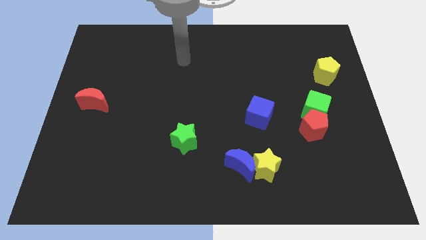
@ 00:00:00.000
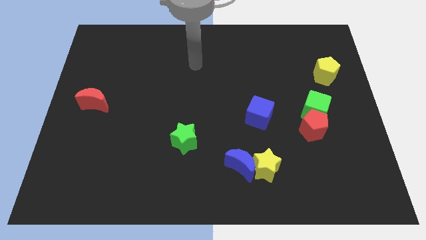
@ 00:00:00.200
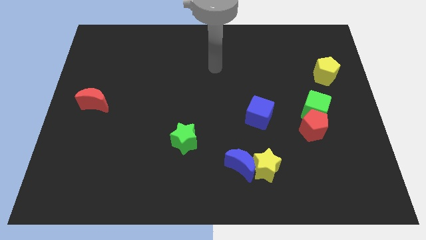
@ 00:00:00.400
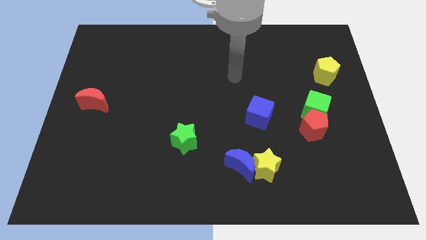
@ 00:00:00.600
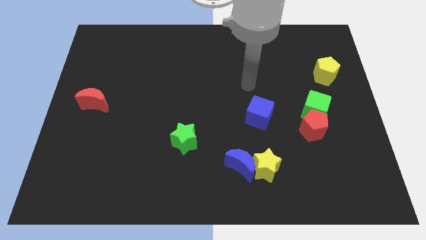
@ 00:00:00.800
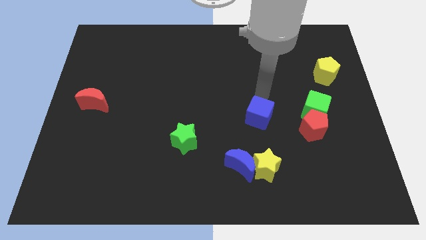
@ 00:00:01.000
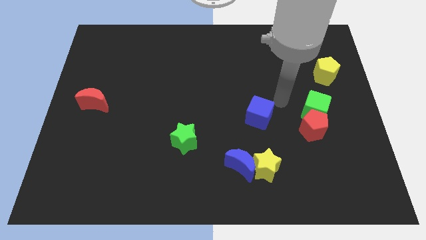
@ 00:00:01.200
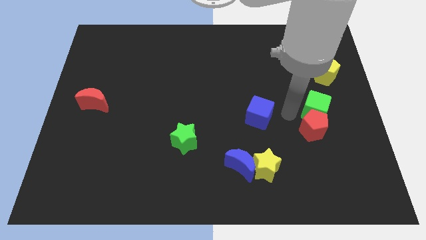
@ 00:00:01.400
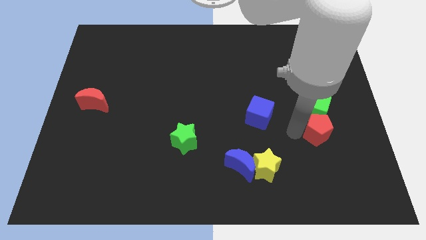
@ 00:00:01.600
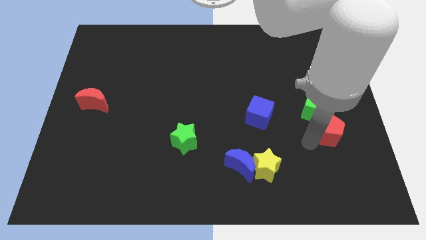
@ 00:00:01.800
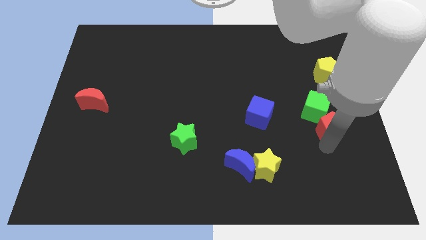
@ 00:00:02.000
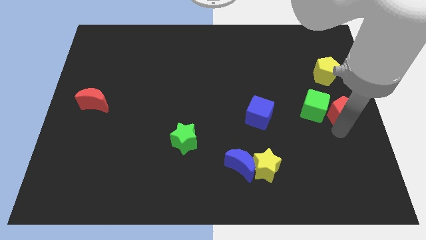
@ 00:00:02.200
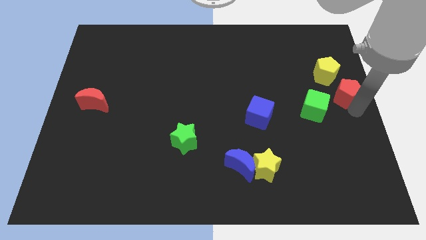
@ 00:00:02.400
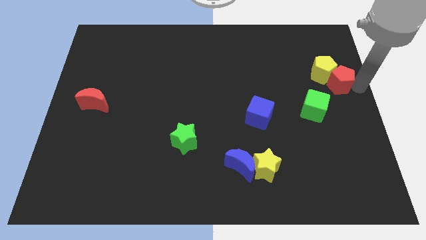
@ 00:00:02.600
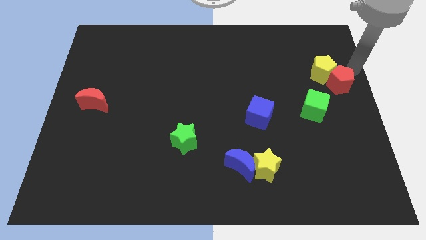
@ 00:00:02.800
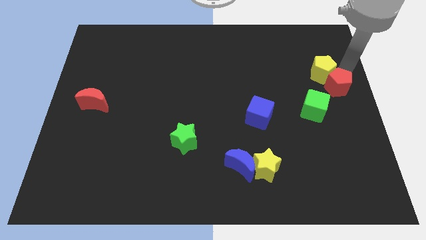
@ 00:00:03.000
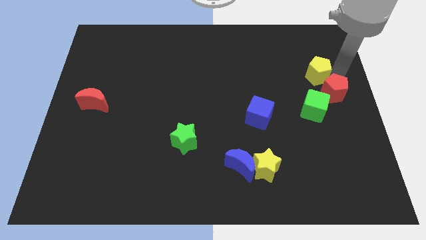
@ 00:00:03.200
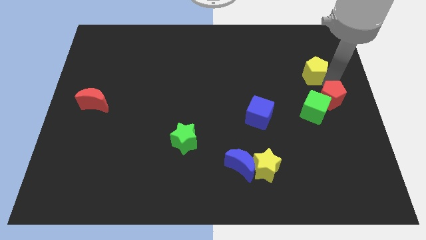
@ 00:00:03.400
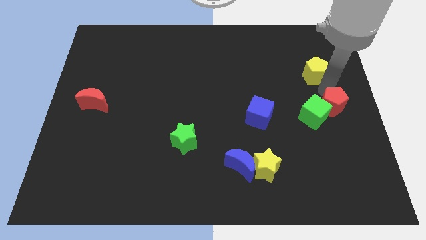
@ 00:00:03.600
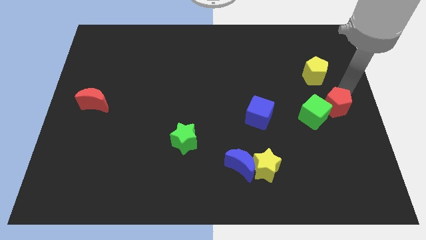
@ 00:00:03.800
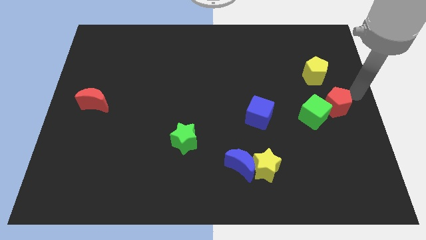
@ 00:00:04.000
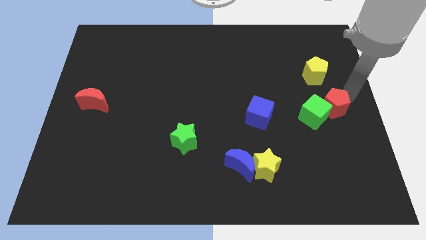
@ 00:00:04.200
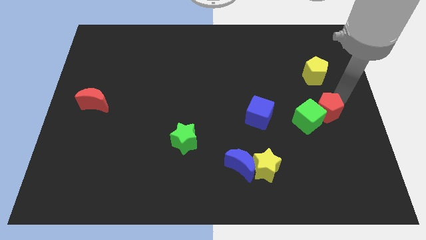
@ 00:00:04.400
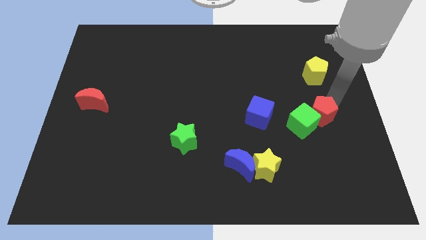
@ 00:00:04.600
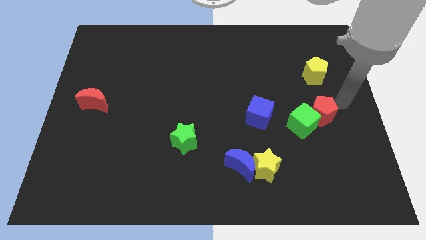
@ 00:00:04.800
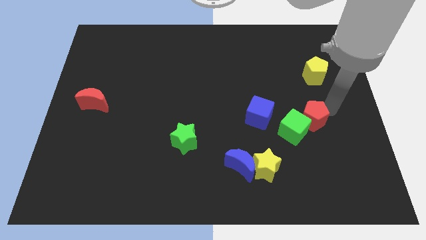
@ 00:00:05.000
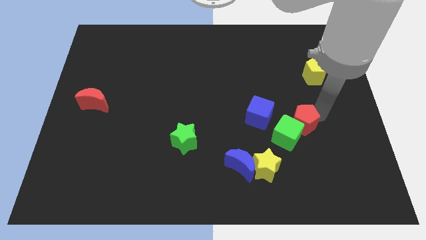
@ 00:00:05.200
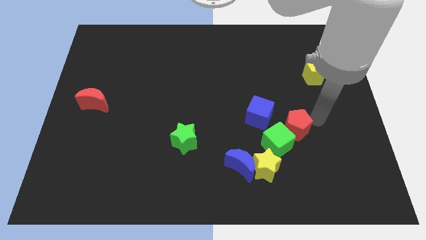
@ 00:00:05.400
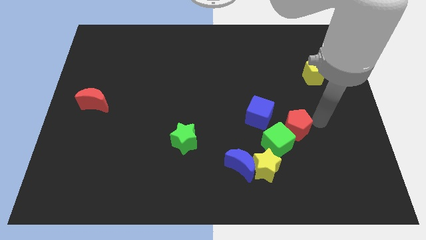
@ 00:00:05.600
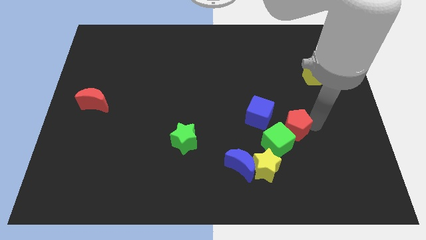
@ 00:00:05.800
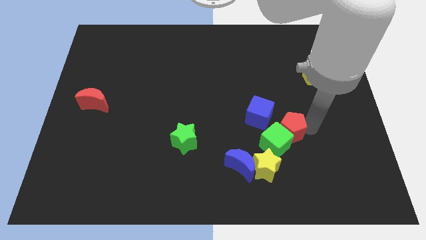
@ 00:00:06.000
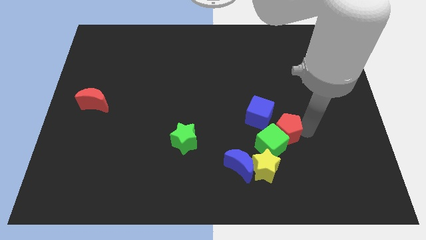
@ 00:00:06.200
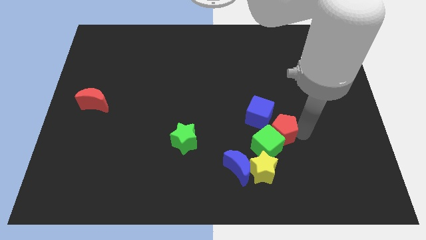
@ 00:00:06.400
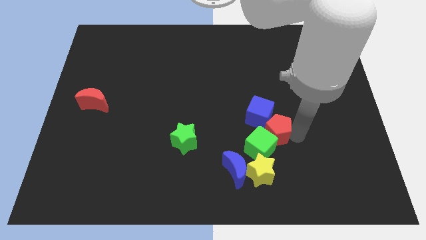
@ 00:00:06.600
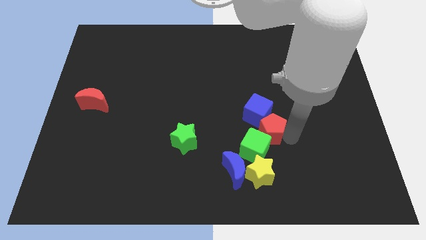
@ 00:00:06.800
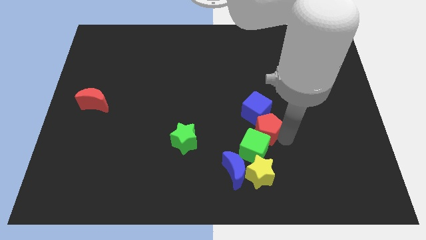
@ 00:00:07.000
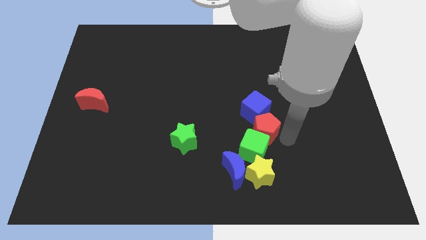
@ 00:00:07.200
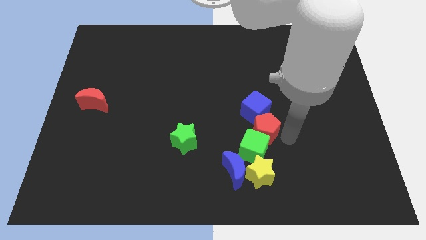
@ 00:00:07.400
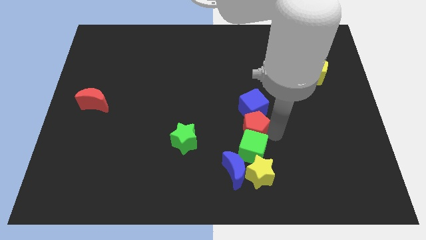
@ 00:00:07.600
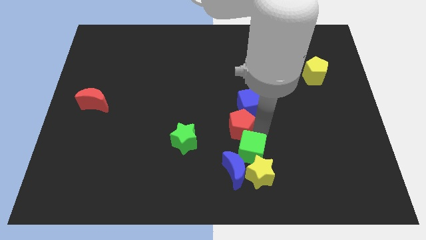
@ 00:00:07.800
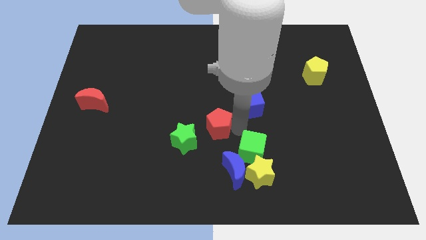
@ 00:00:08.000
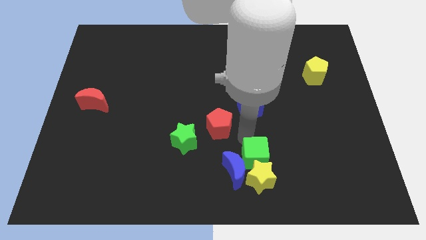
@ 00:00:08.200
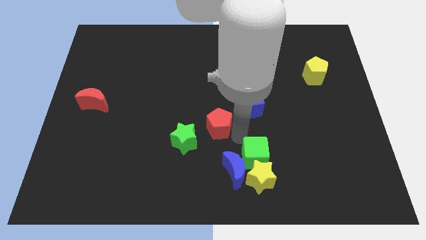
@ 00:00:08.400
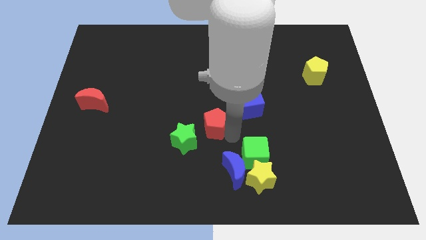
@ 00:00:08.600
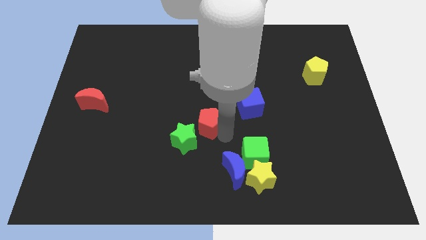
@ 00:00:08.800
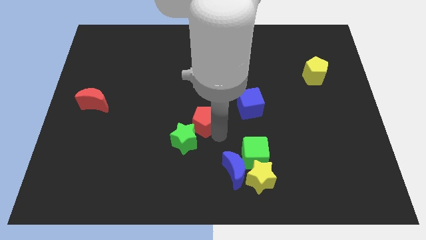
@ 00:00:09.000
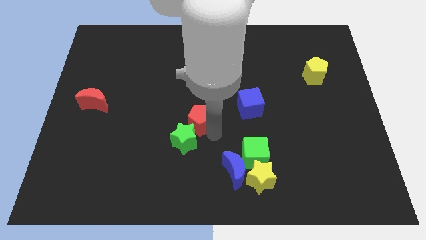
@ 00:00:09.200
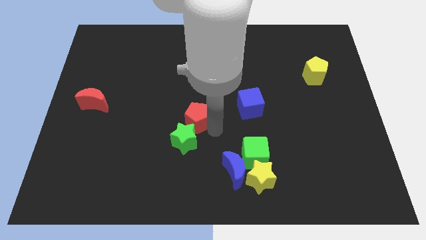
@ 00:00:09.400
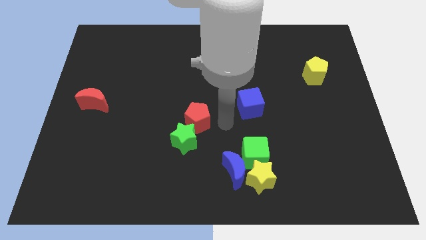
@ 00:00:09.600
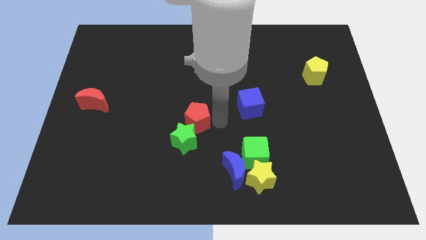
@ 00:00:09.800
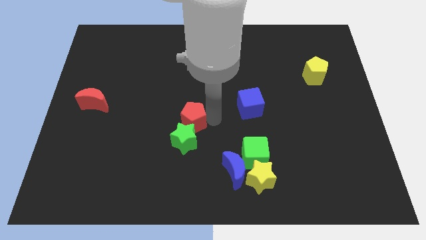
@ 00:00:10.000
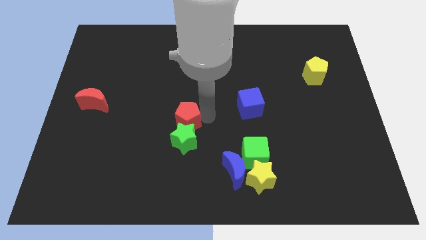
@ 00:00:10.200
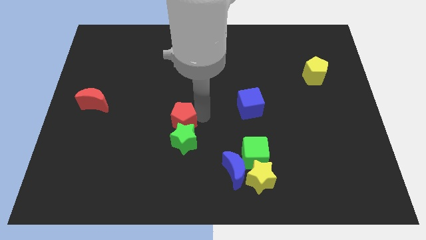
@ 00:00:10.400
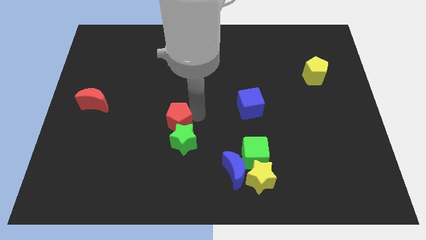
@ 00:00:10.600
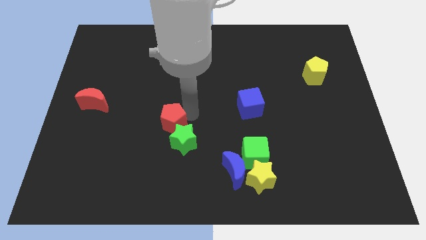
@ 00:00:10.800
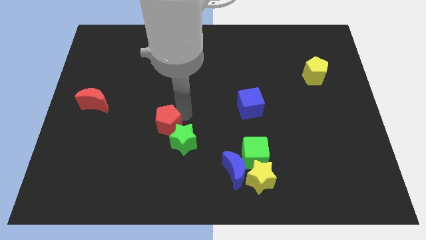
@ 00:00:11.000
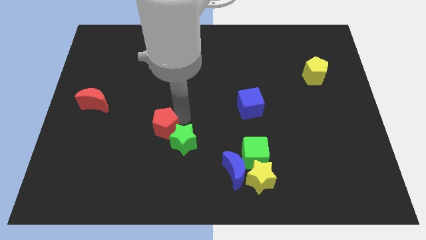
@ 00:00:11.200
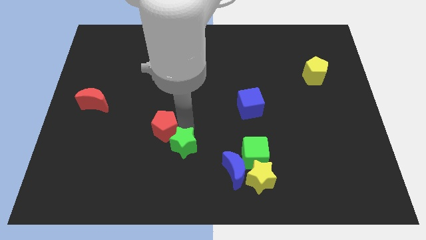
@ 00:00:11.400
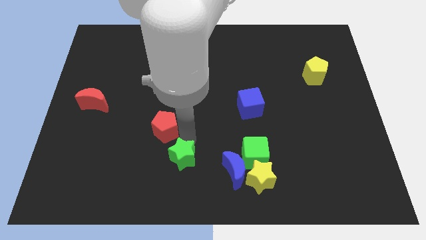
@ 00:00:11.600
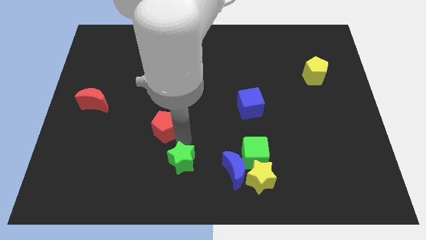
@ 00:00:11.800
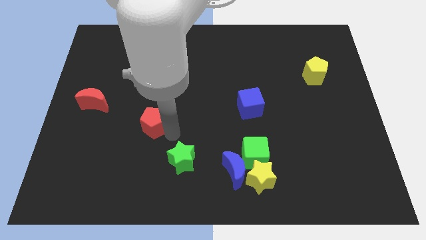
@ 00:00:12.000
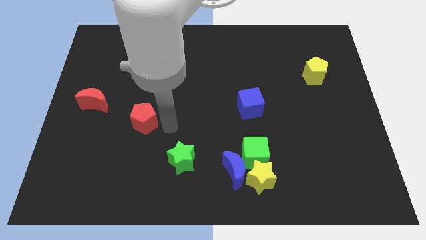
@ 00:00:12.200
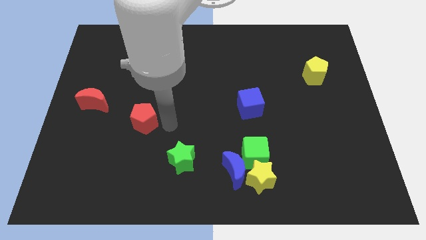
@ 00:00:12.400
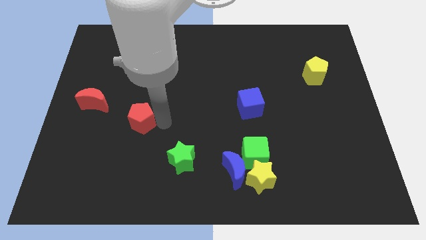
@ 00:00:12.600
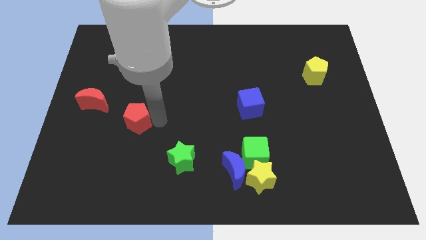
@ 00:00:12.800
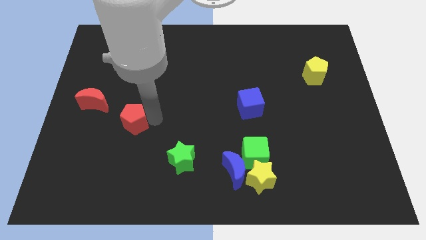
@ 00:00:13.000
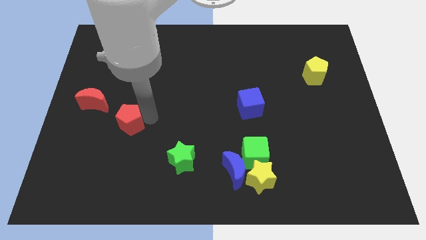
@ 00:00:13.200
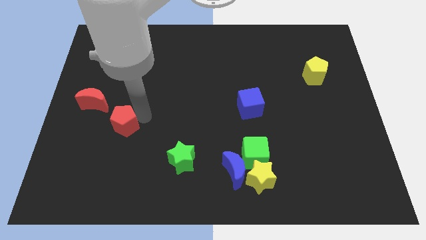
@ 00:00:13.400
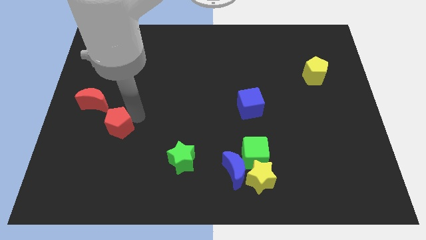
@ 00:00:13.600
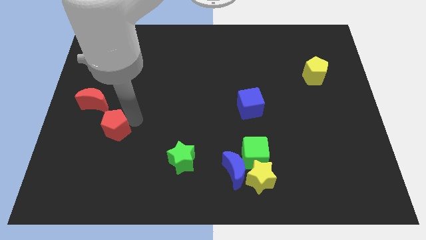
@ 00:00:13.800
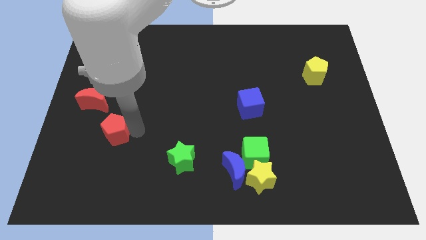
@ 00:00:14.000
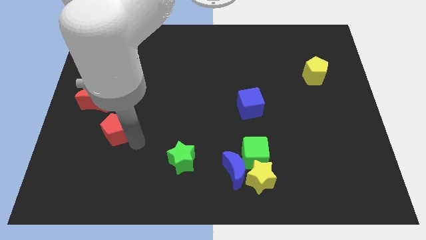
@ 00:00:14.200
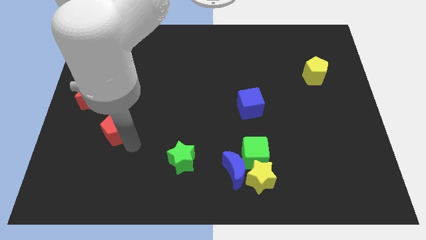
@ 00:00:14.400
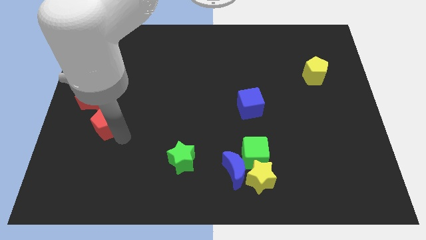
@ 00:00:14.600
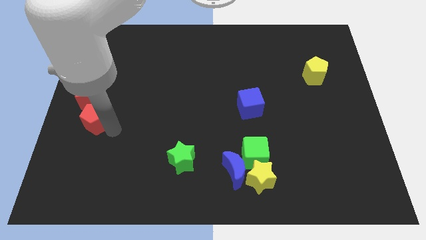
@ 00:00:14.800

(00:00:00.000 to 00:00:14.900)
move the red pentagon to the left side
